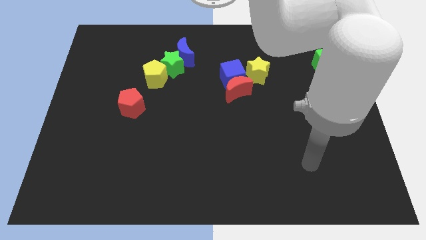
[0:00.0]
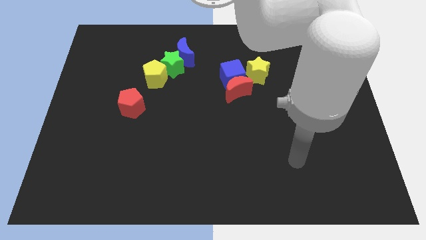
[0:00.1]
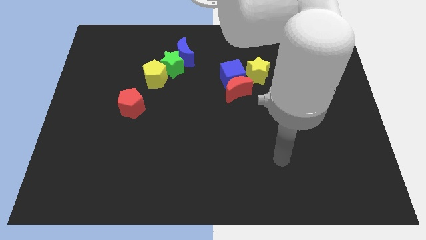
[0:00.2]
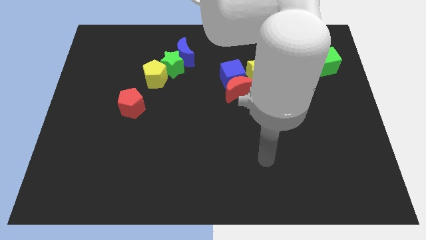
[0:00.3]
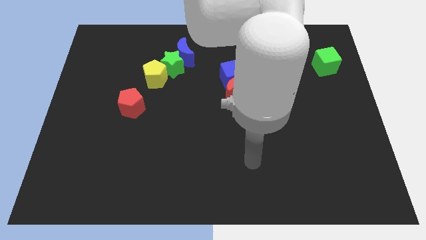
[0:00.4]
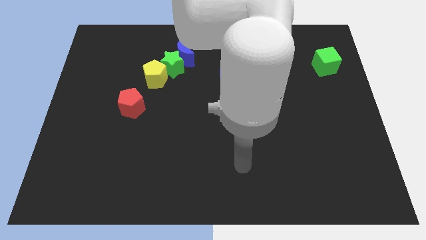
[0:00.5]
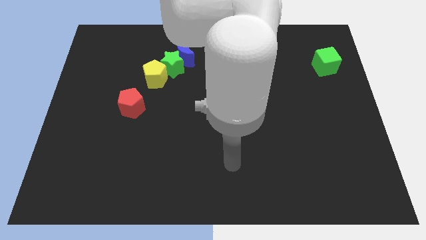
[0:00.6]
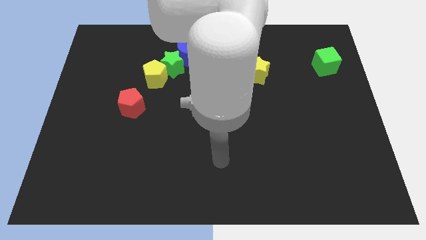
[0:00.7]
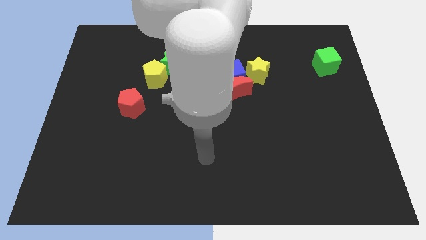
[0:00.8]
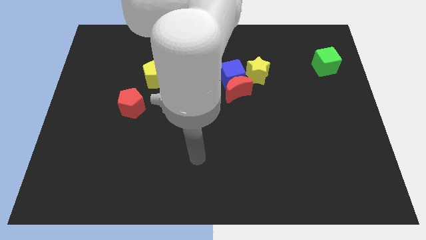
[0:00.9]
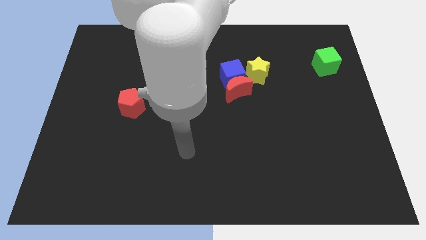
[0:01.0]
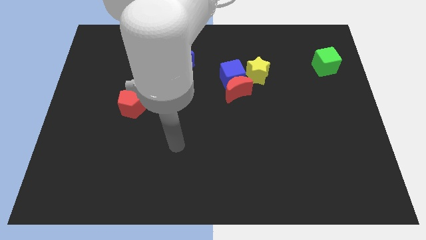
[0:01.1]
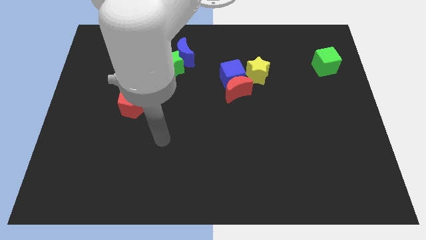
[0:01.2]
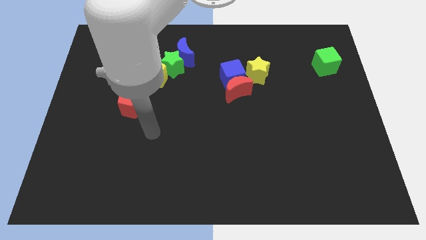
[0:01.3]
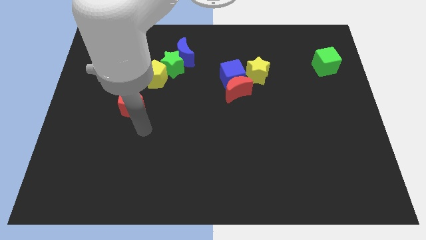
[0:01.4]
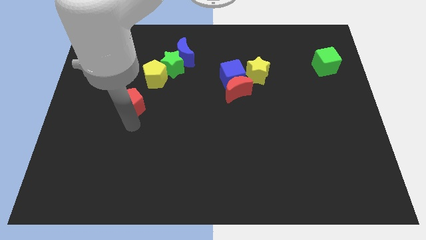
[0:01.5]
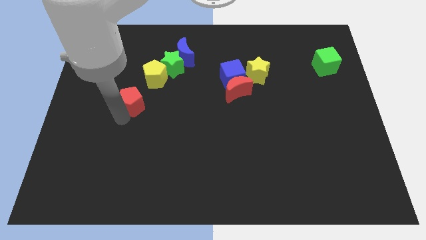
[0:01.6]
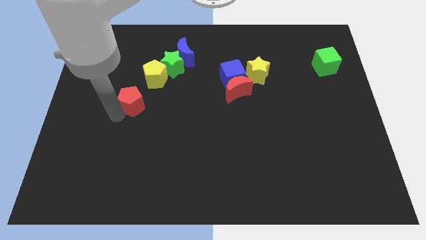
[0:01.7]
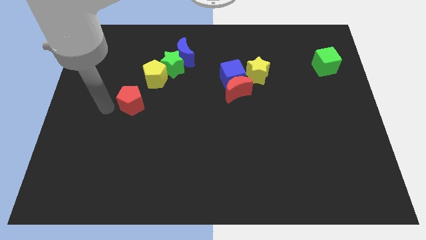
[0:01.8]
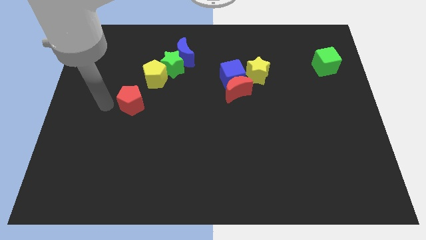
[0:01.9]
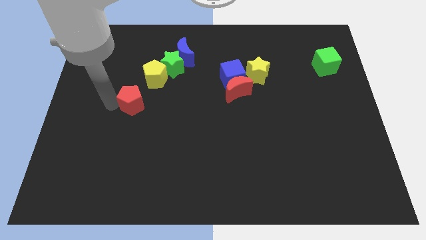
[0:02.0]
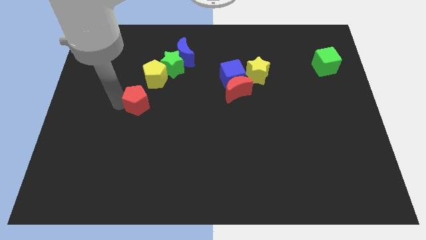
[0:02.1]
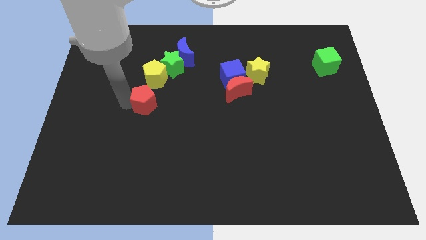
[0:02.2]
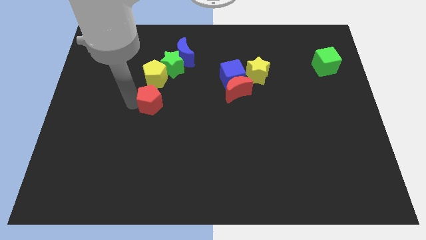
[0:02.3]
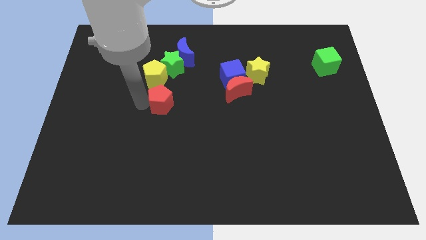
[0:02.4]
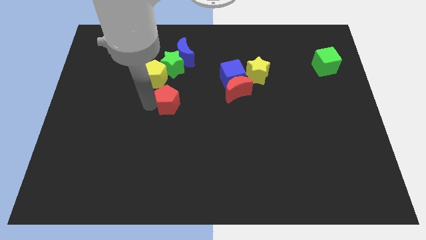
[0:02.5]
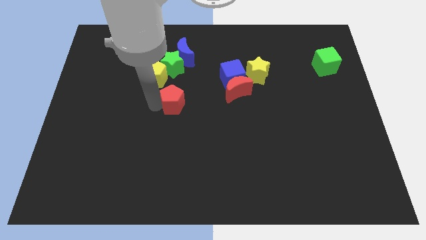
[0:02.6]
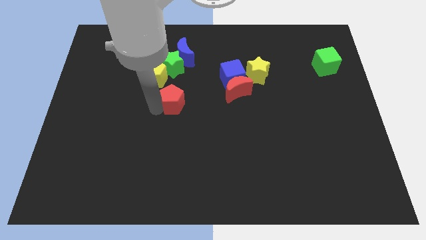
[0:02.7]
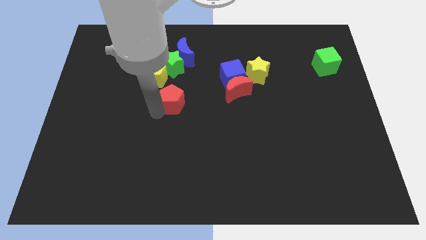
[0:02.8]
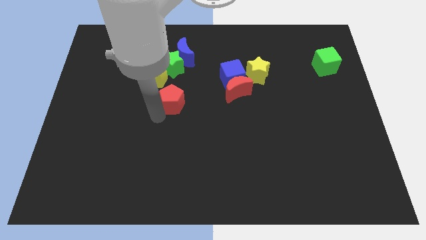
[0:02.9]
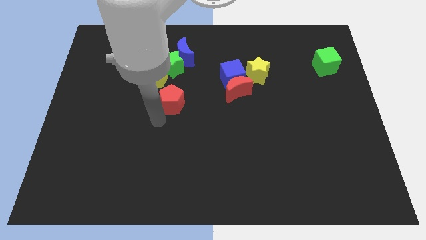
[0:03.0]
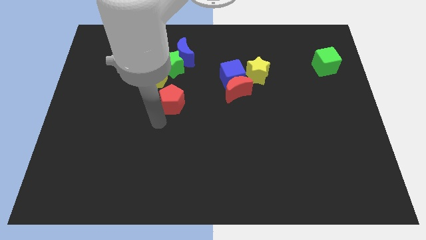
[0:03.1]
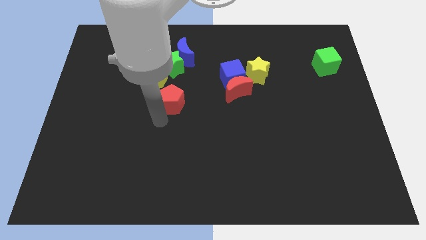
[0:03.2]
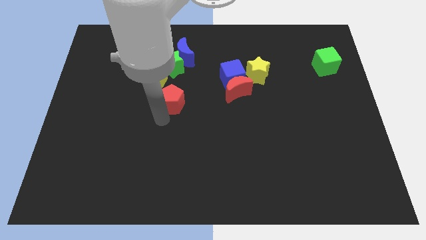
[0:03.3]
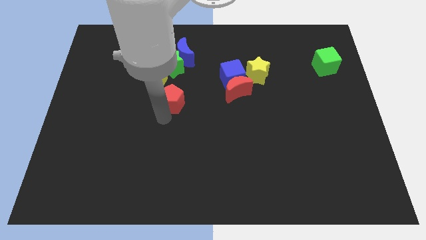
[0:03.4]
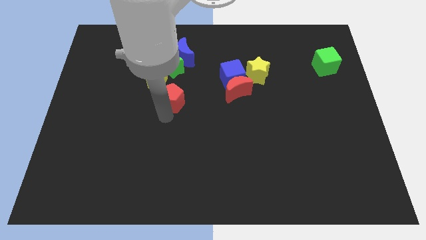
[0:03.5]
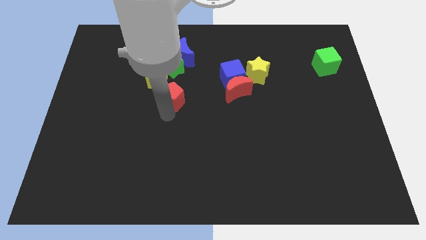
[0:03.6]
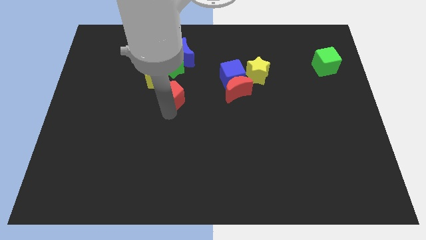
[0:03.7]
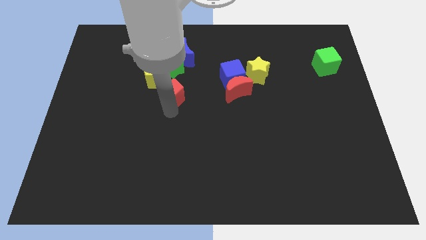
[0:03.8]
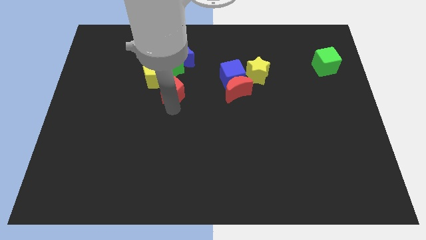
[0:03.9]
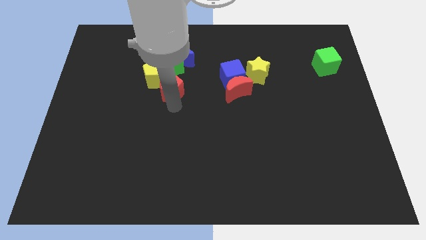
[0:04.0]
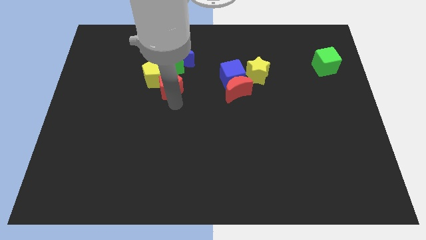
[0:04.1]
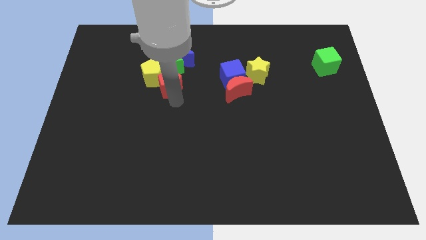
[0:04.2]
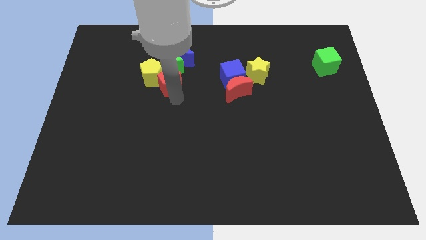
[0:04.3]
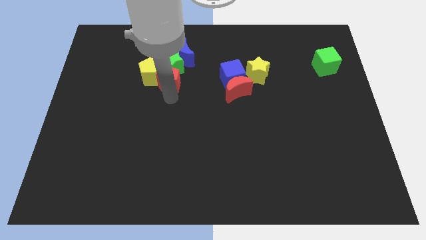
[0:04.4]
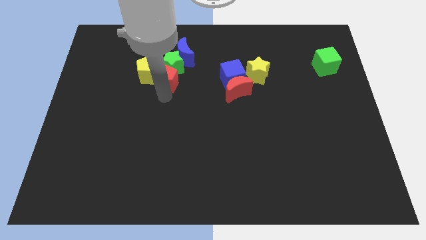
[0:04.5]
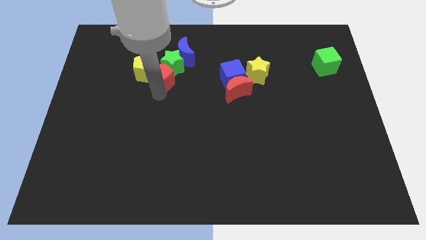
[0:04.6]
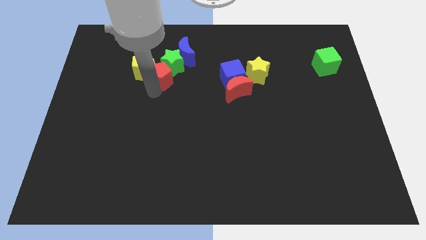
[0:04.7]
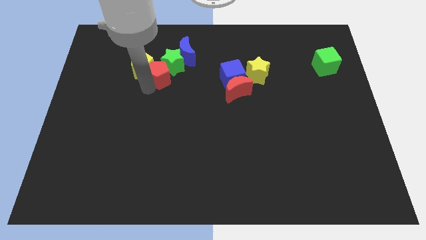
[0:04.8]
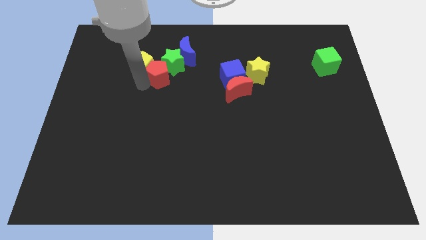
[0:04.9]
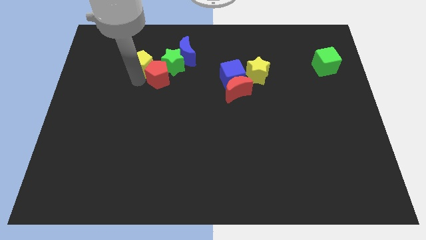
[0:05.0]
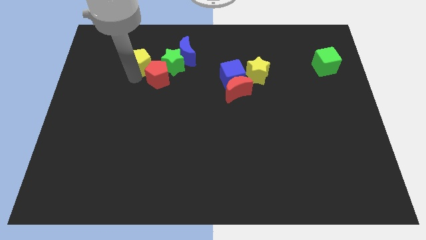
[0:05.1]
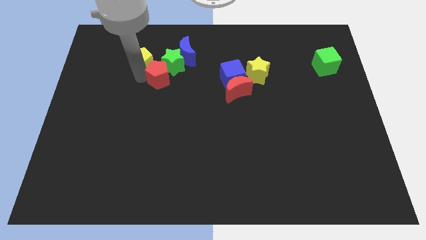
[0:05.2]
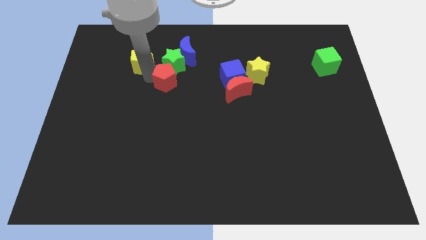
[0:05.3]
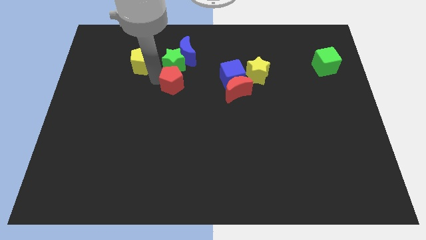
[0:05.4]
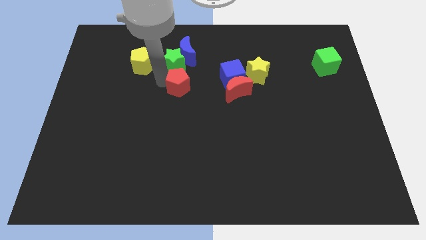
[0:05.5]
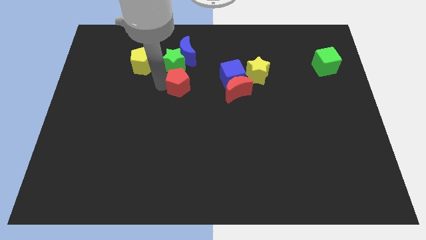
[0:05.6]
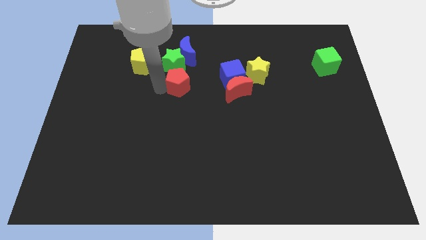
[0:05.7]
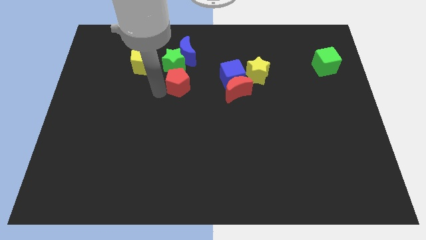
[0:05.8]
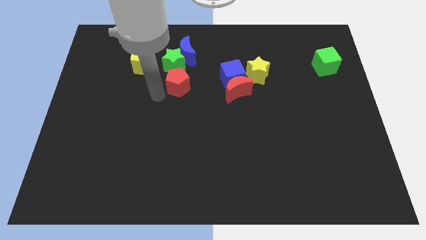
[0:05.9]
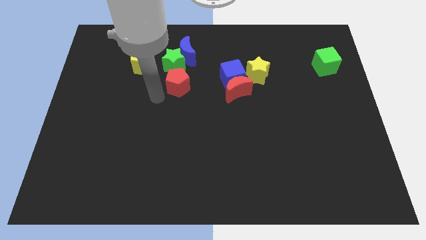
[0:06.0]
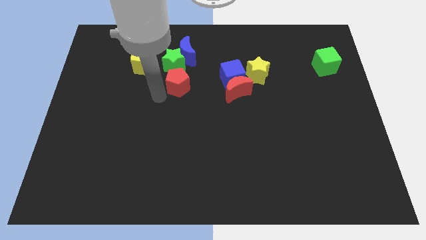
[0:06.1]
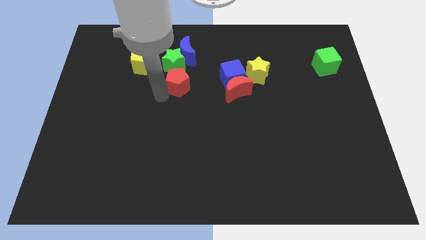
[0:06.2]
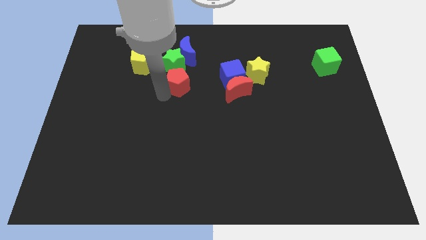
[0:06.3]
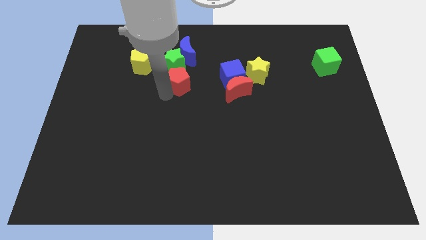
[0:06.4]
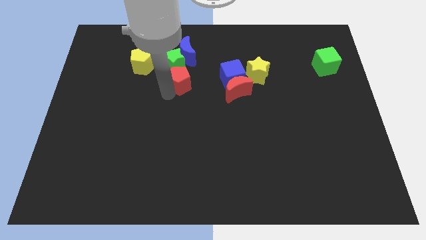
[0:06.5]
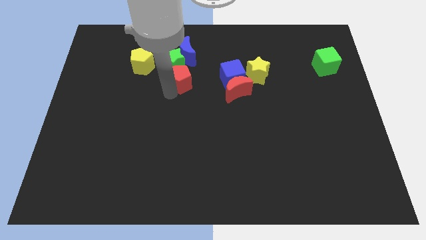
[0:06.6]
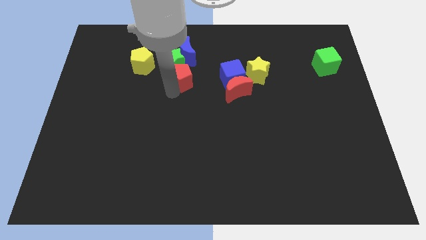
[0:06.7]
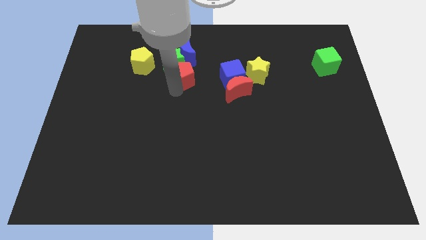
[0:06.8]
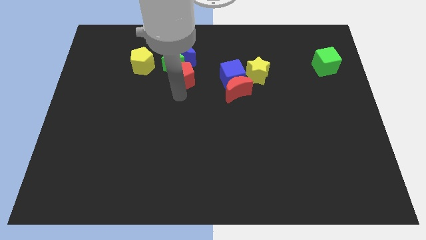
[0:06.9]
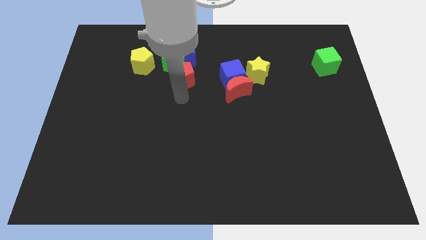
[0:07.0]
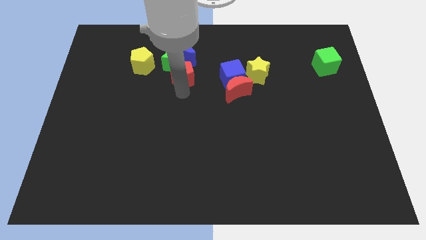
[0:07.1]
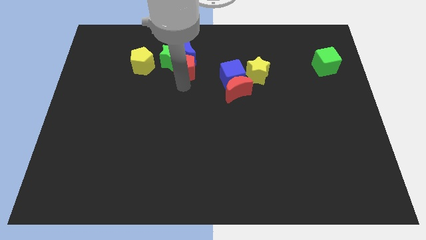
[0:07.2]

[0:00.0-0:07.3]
put the red pentagon close to the blue moon

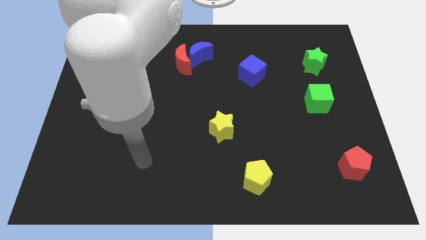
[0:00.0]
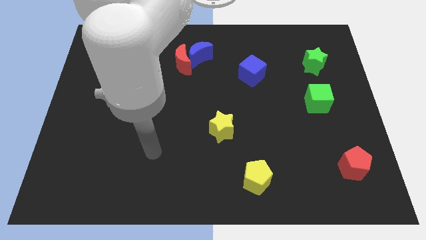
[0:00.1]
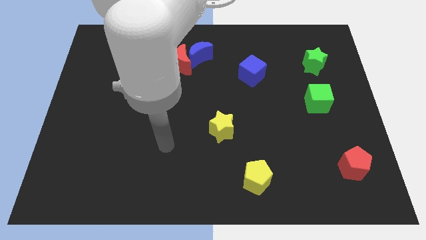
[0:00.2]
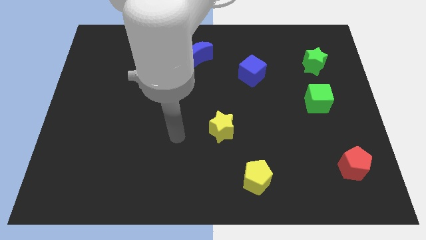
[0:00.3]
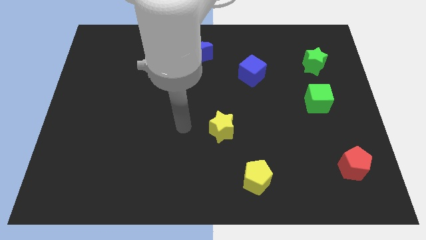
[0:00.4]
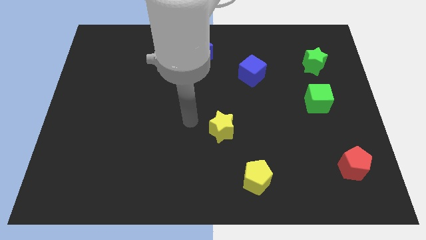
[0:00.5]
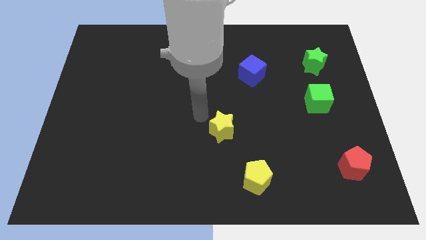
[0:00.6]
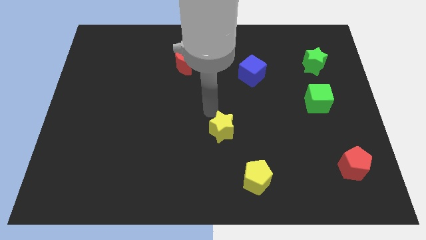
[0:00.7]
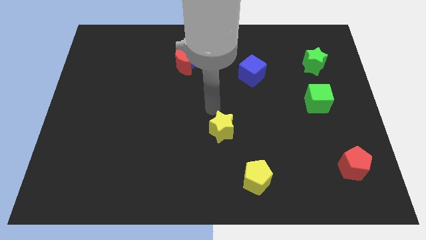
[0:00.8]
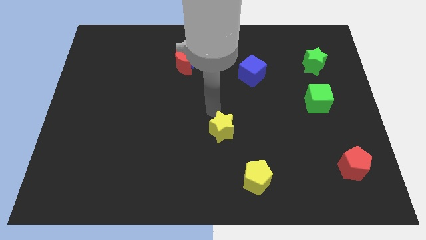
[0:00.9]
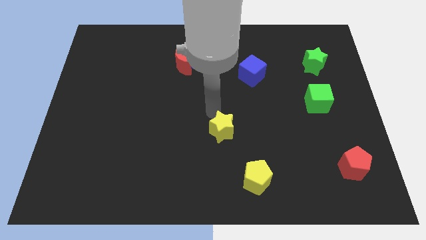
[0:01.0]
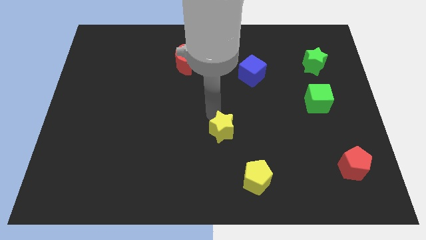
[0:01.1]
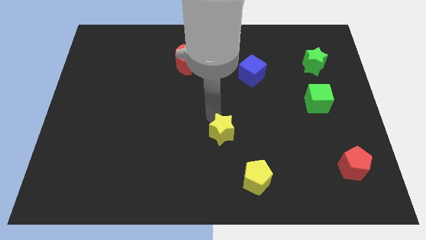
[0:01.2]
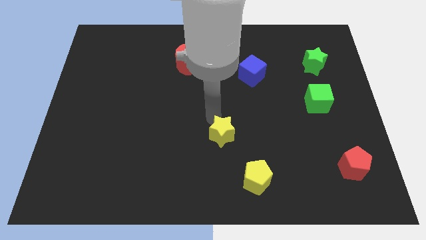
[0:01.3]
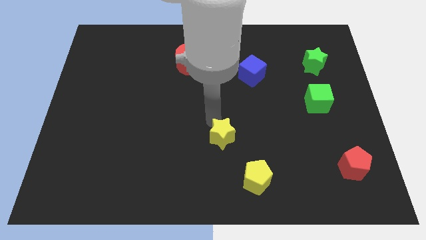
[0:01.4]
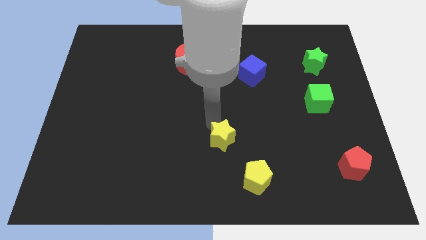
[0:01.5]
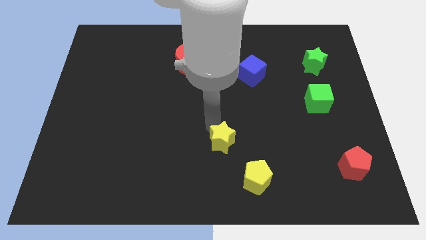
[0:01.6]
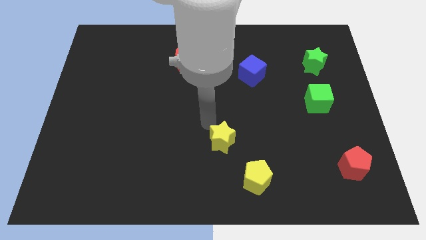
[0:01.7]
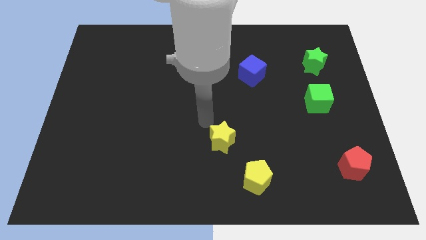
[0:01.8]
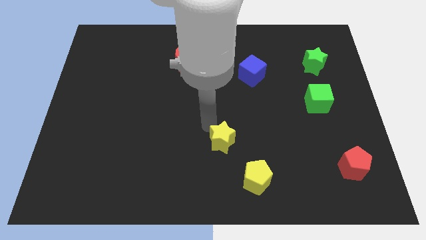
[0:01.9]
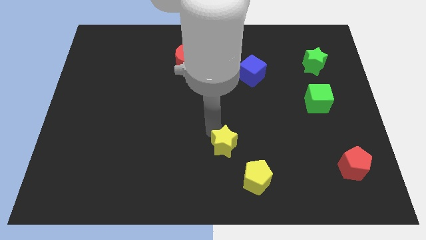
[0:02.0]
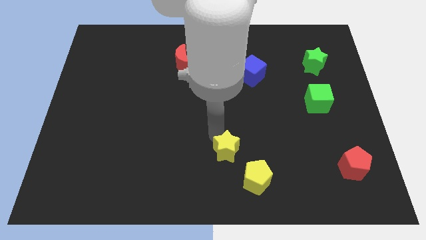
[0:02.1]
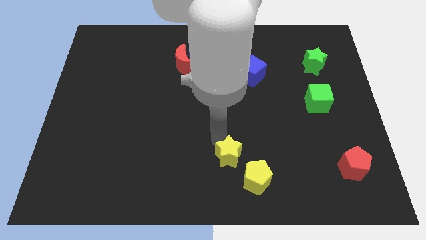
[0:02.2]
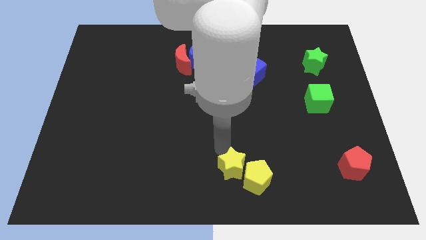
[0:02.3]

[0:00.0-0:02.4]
move the yellow star close to the yellow pentagon
